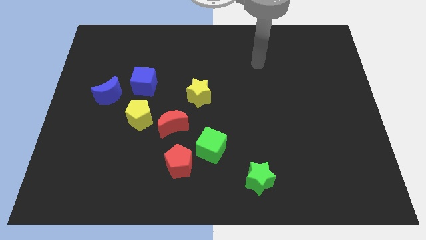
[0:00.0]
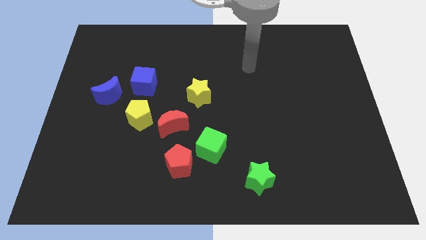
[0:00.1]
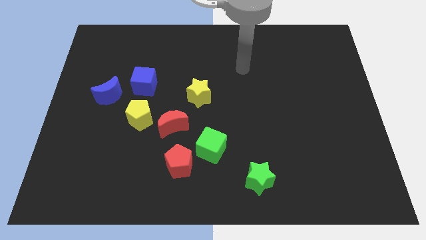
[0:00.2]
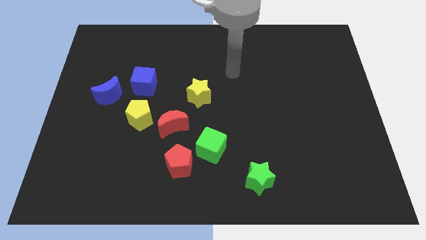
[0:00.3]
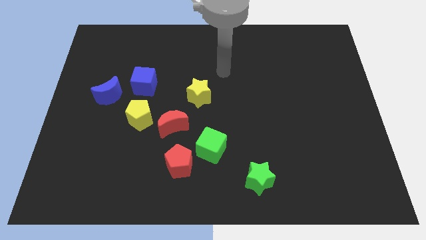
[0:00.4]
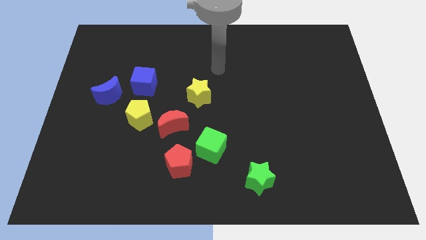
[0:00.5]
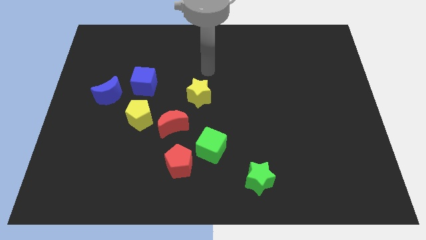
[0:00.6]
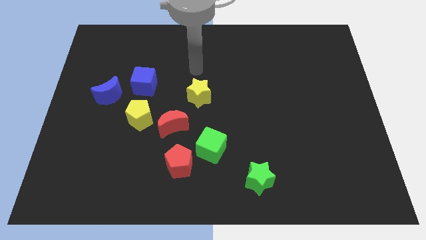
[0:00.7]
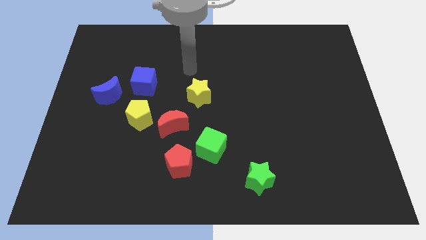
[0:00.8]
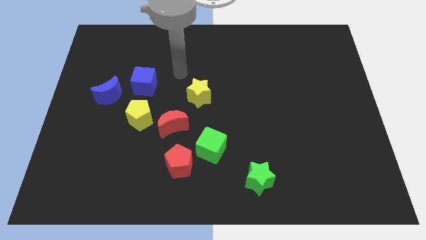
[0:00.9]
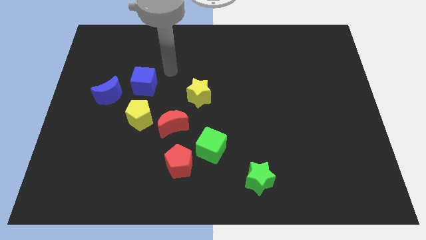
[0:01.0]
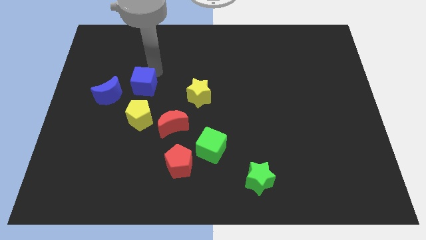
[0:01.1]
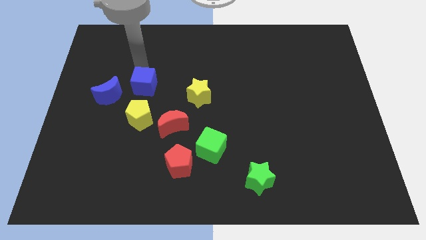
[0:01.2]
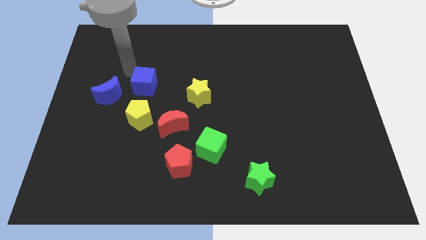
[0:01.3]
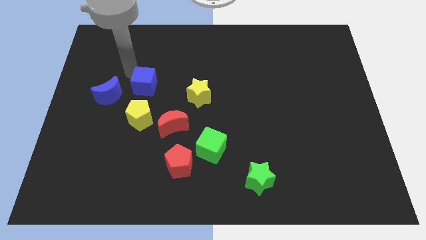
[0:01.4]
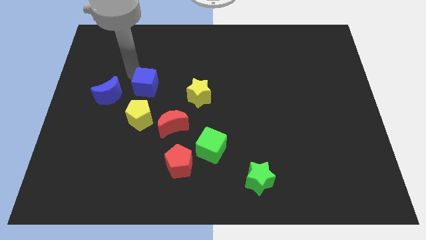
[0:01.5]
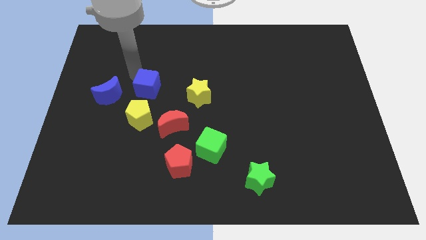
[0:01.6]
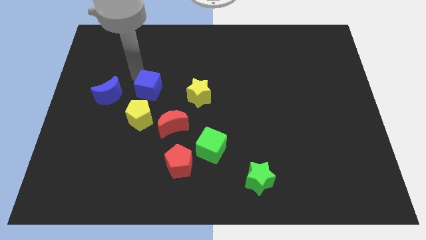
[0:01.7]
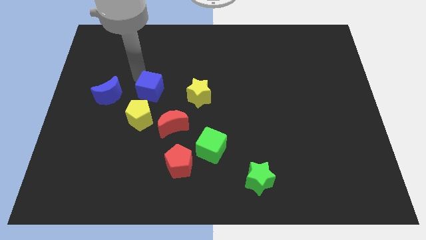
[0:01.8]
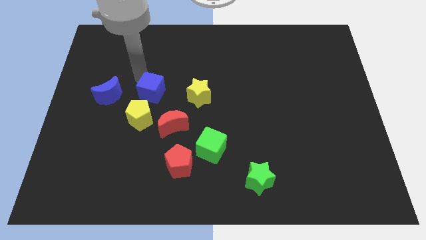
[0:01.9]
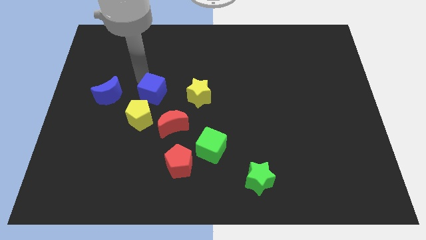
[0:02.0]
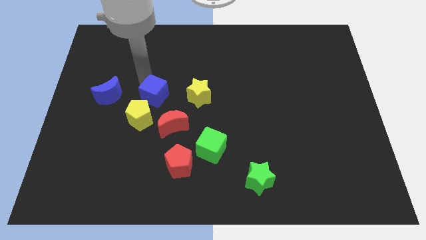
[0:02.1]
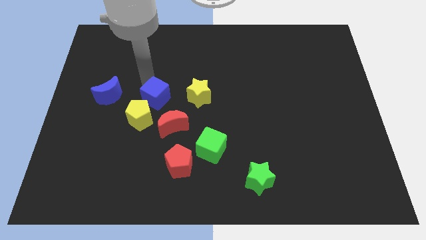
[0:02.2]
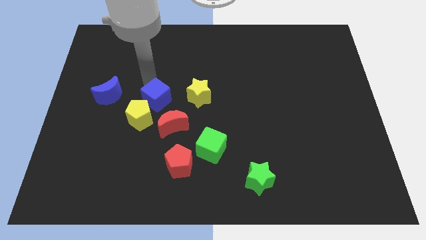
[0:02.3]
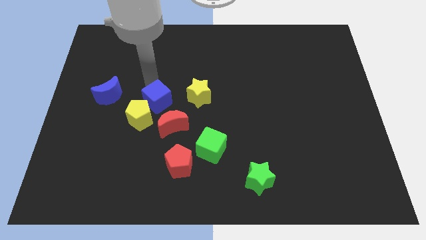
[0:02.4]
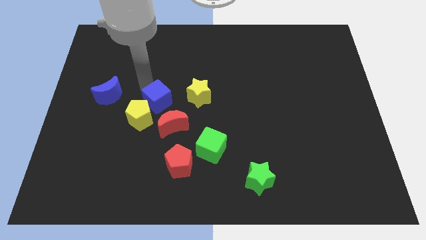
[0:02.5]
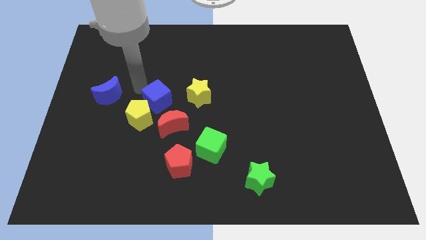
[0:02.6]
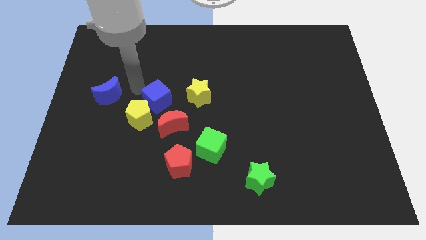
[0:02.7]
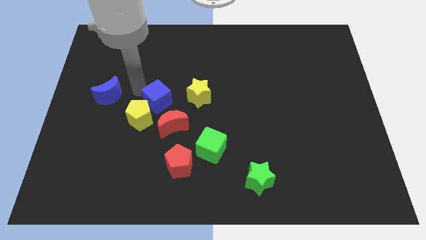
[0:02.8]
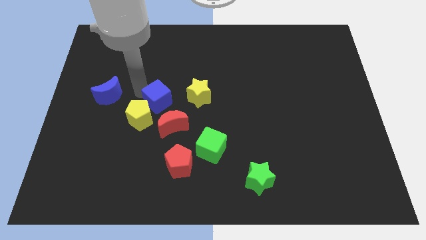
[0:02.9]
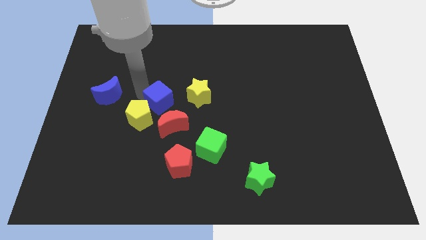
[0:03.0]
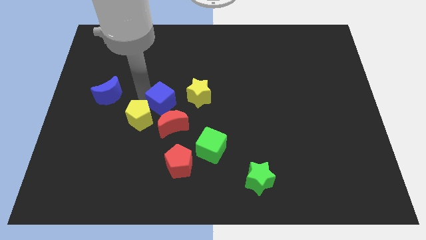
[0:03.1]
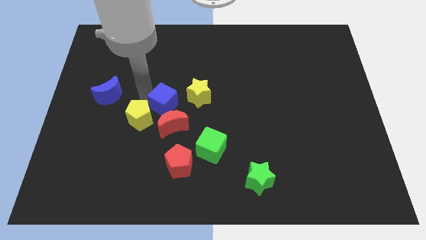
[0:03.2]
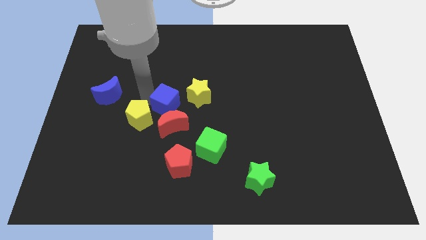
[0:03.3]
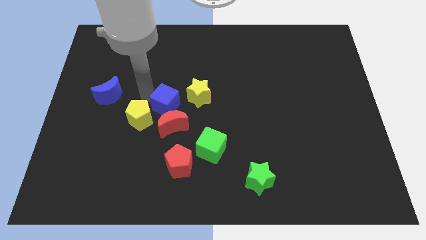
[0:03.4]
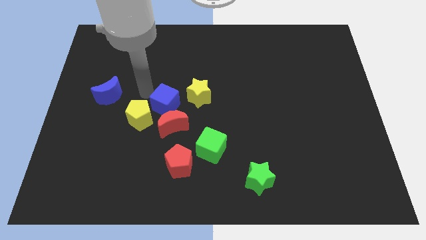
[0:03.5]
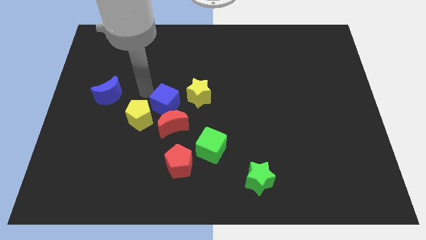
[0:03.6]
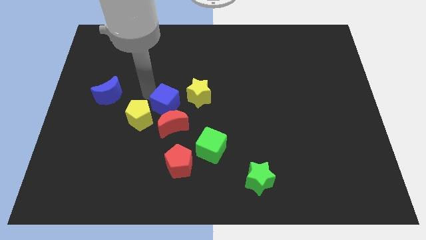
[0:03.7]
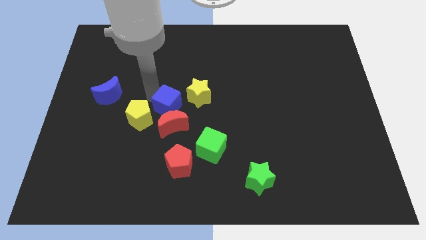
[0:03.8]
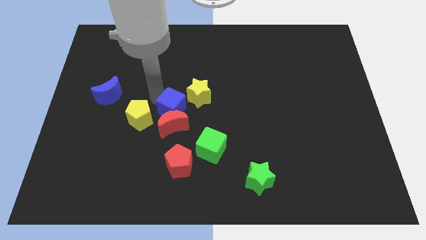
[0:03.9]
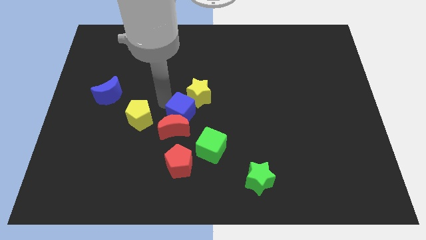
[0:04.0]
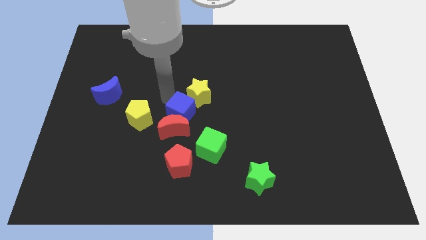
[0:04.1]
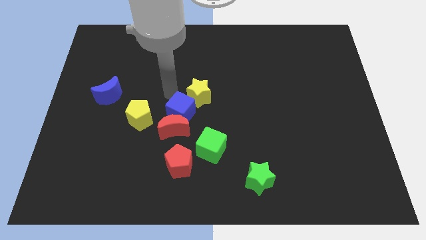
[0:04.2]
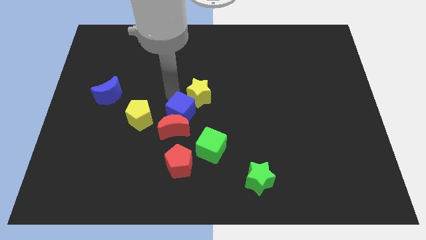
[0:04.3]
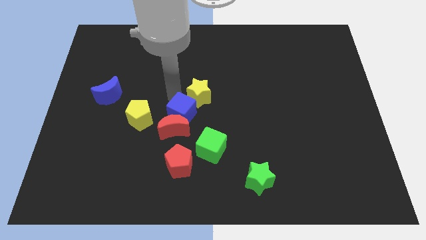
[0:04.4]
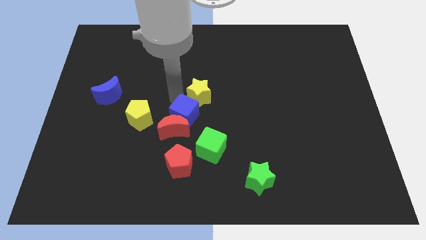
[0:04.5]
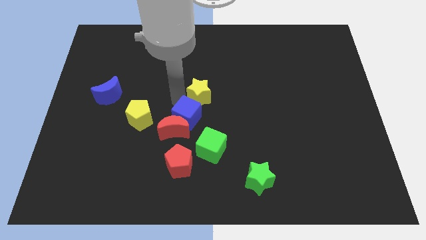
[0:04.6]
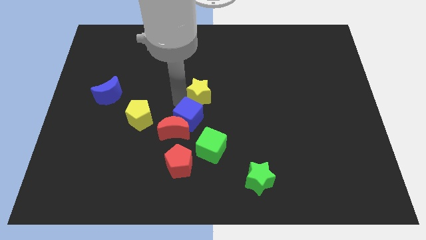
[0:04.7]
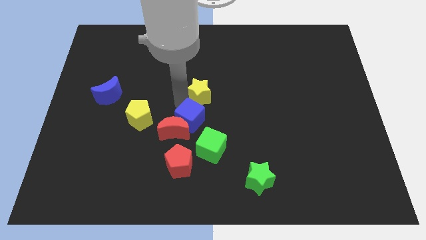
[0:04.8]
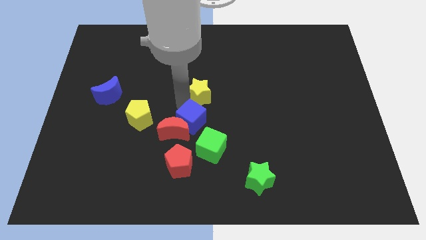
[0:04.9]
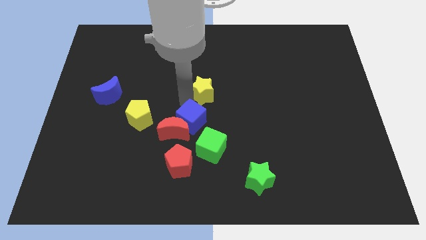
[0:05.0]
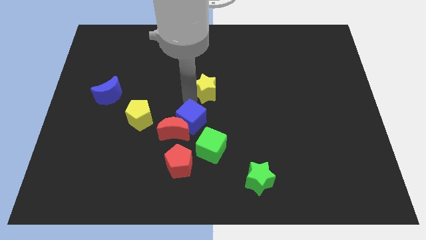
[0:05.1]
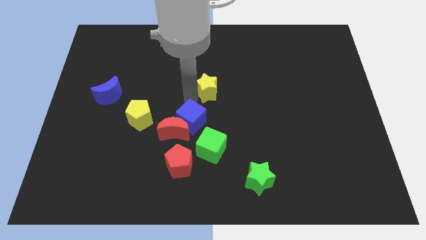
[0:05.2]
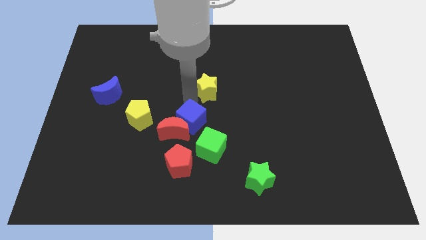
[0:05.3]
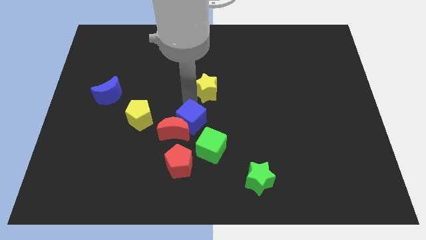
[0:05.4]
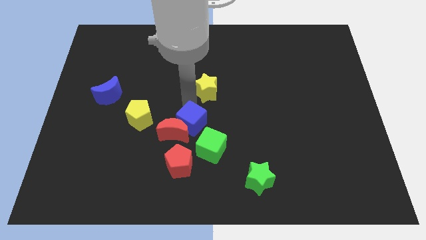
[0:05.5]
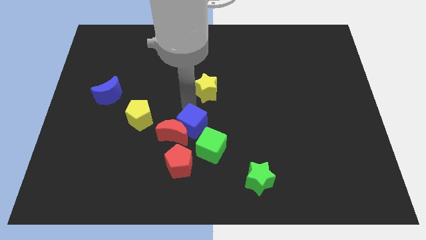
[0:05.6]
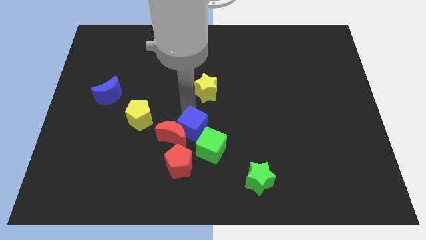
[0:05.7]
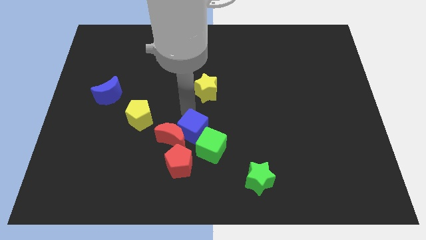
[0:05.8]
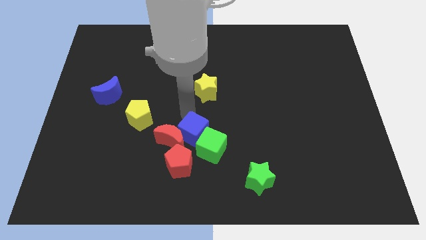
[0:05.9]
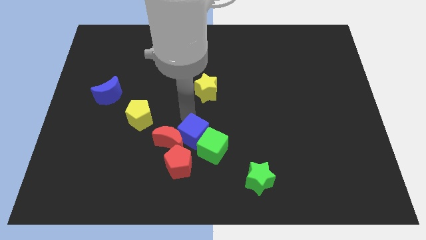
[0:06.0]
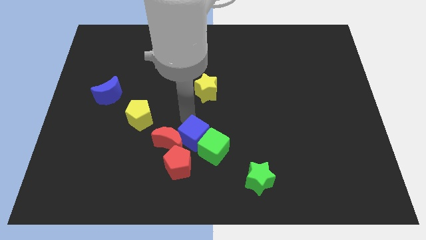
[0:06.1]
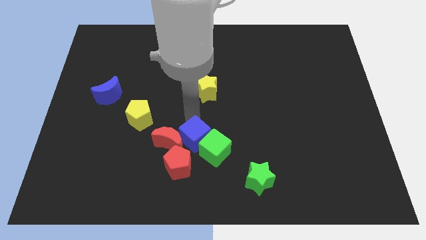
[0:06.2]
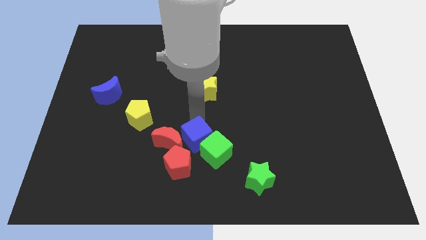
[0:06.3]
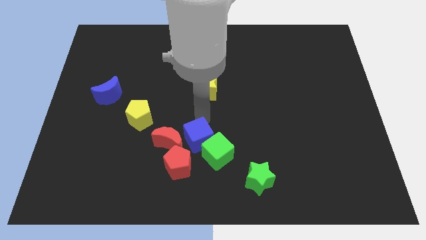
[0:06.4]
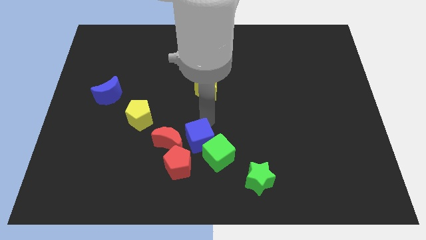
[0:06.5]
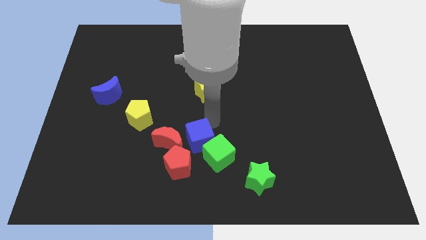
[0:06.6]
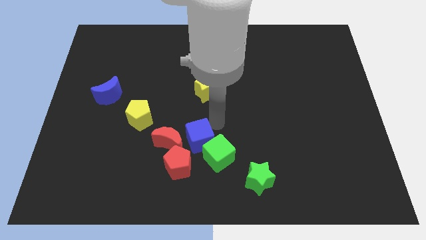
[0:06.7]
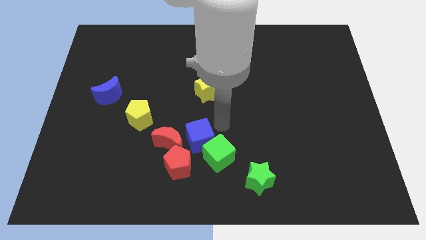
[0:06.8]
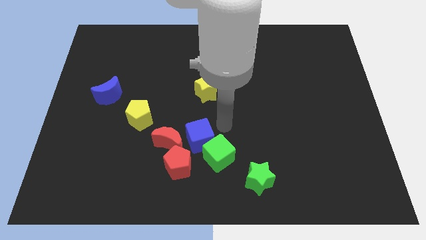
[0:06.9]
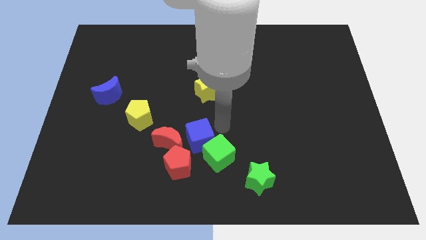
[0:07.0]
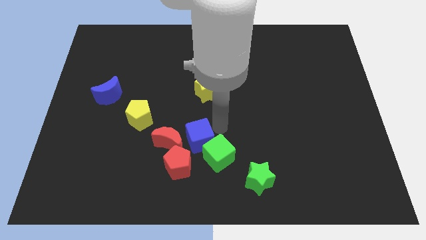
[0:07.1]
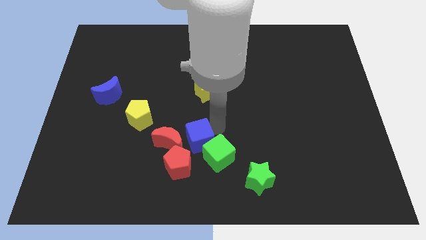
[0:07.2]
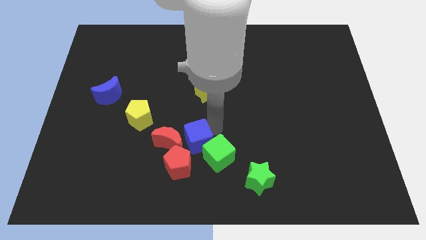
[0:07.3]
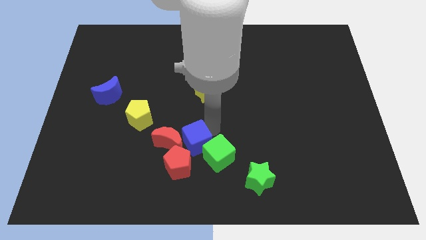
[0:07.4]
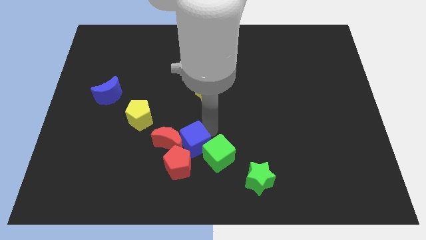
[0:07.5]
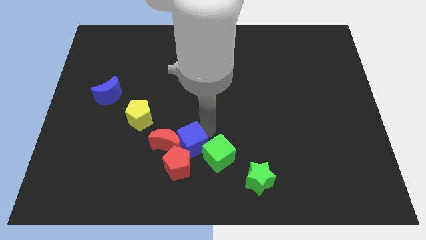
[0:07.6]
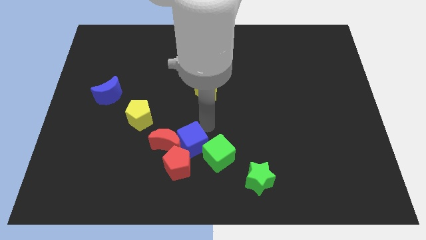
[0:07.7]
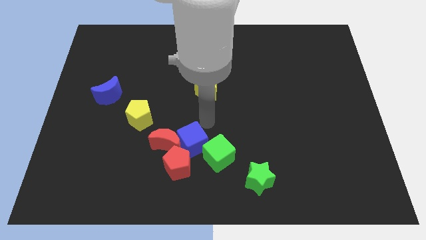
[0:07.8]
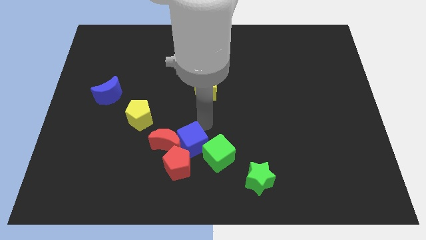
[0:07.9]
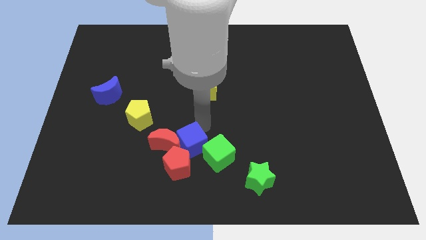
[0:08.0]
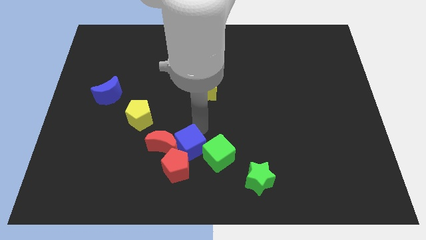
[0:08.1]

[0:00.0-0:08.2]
put the blue cube next to the red pentagon
